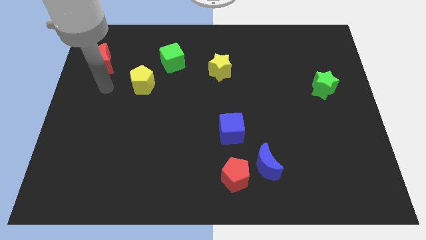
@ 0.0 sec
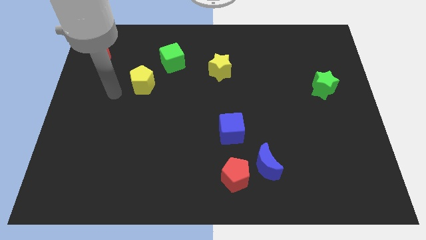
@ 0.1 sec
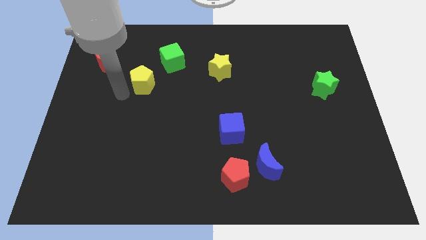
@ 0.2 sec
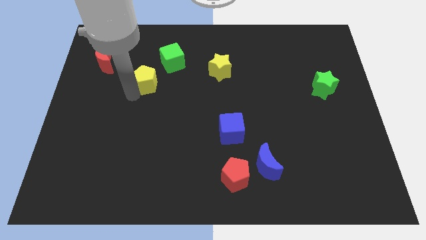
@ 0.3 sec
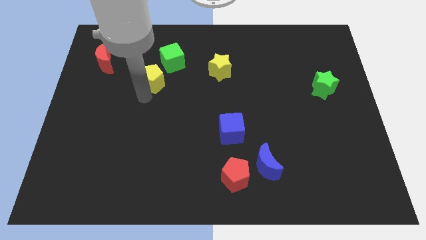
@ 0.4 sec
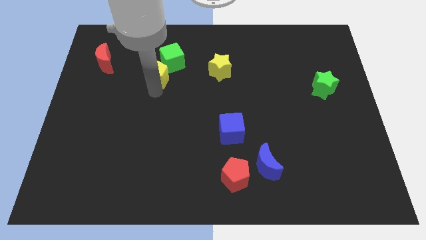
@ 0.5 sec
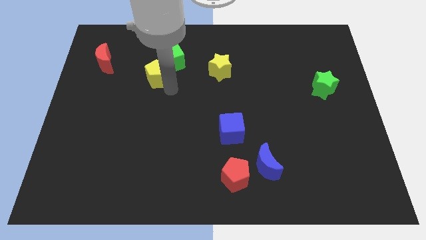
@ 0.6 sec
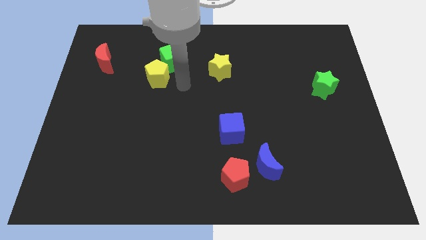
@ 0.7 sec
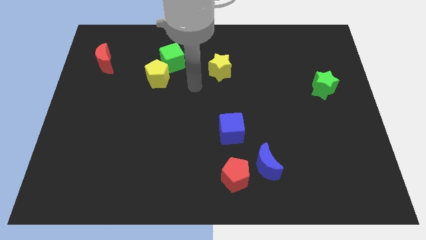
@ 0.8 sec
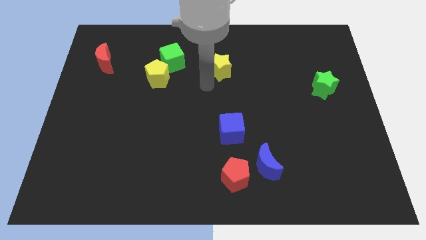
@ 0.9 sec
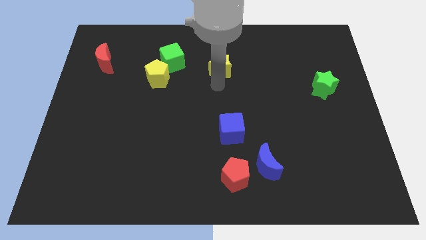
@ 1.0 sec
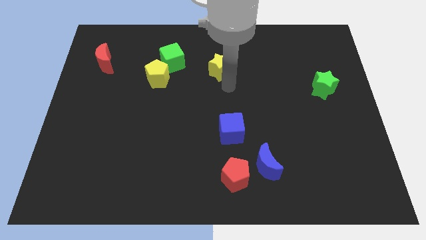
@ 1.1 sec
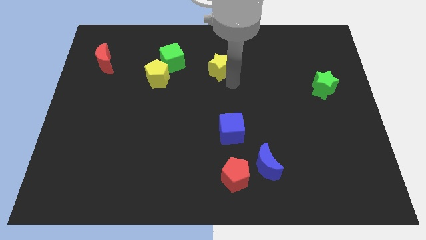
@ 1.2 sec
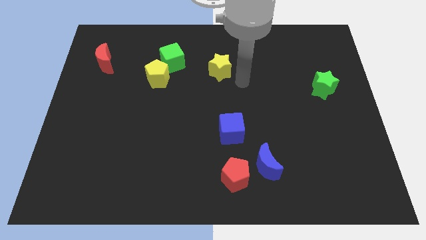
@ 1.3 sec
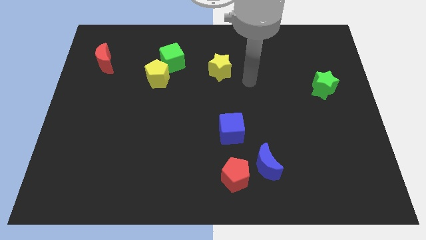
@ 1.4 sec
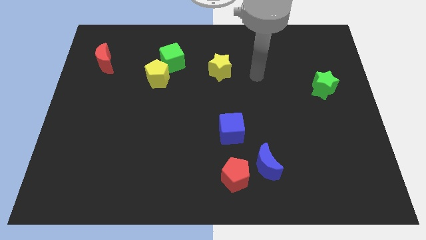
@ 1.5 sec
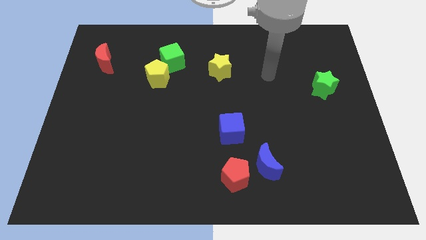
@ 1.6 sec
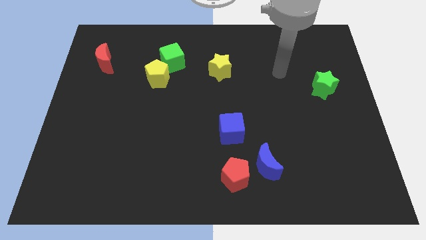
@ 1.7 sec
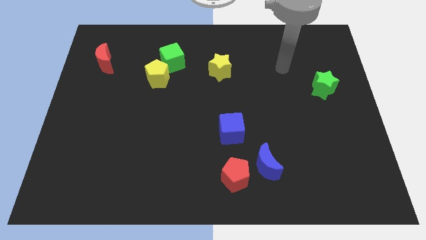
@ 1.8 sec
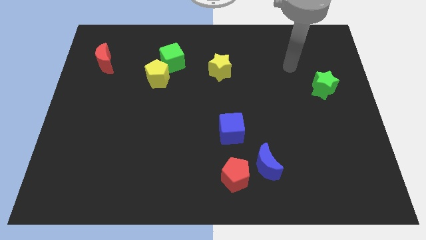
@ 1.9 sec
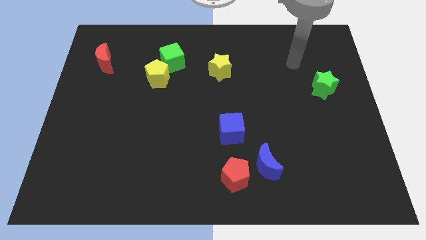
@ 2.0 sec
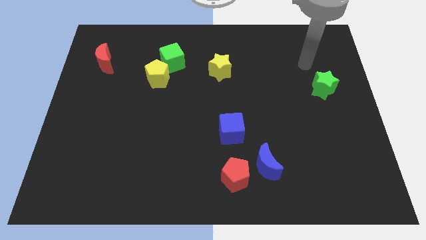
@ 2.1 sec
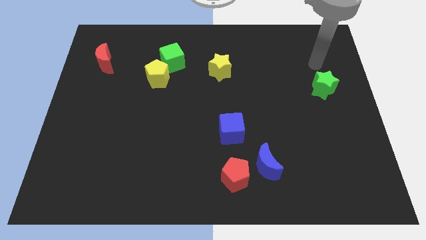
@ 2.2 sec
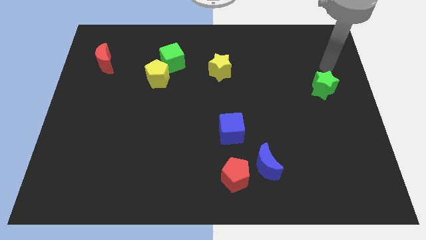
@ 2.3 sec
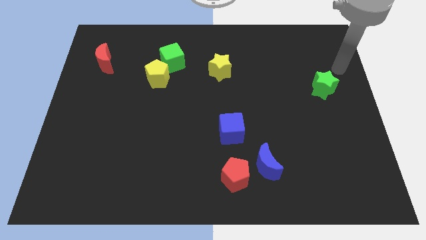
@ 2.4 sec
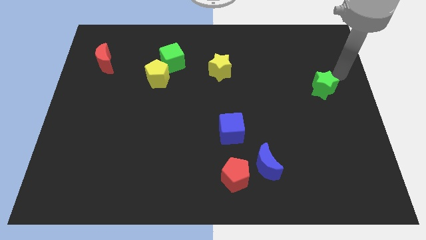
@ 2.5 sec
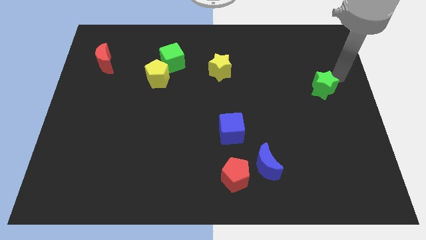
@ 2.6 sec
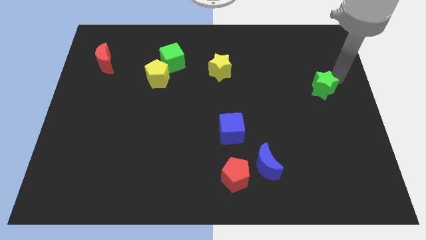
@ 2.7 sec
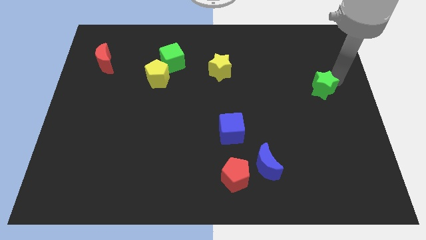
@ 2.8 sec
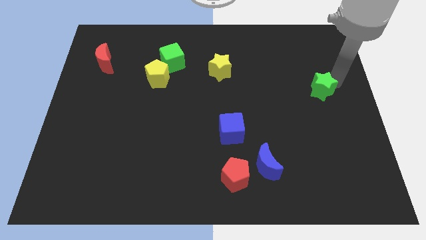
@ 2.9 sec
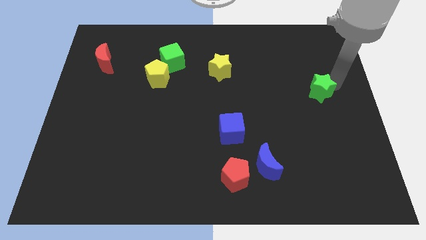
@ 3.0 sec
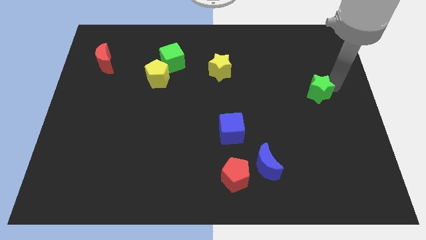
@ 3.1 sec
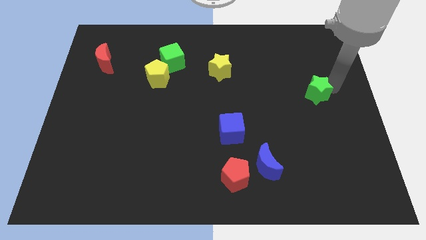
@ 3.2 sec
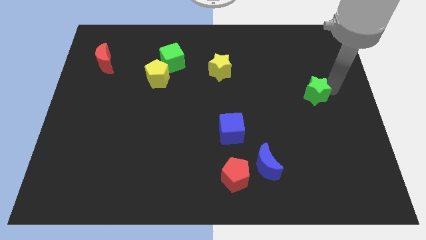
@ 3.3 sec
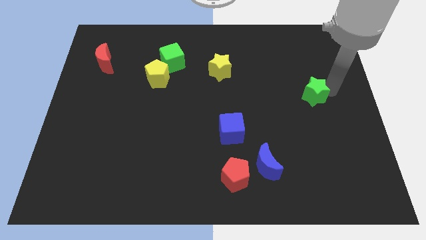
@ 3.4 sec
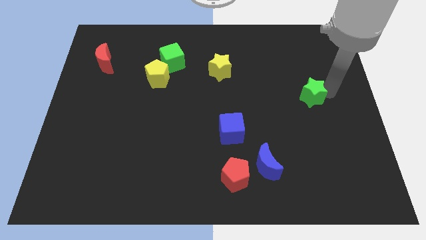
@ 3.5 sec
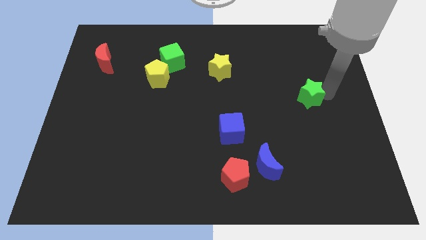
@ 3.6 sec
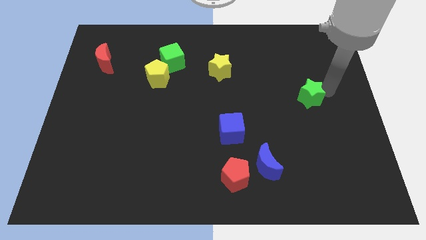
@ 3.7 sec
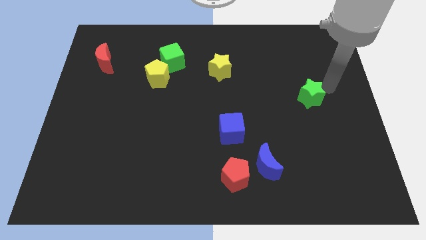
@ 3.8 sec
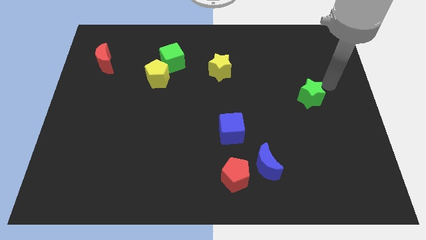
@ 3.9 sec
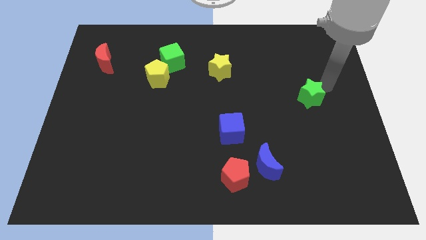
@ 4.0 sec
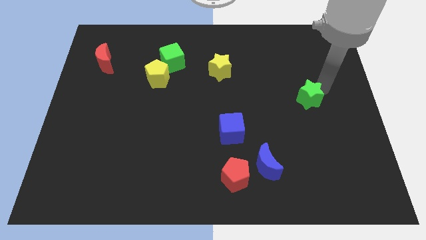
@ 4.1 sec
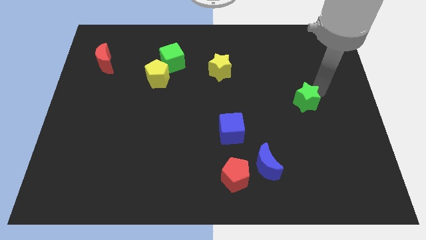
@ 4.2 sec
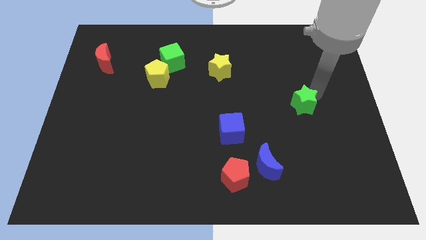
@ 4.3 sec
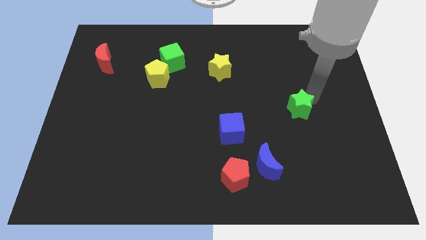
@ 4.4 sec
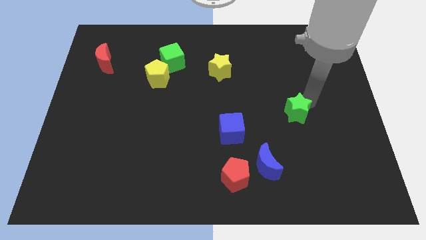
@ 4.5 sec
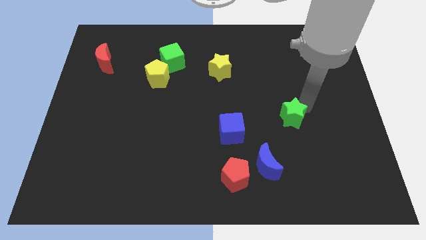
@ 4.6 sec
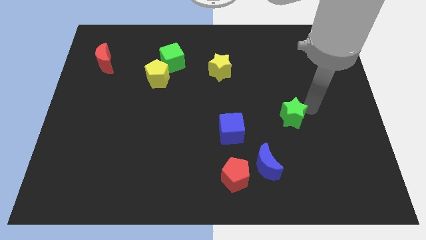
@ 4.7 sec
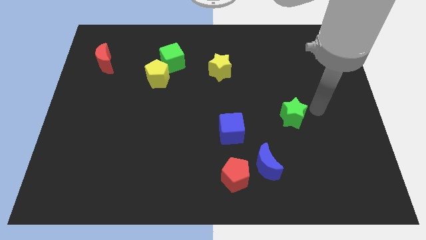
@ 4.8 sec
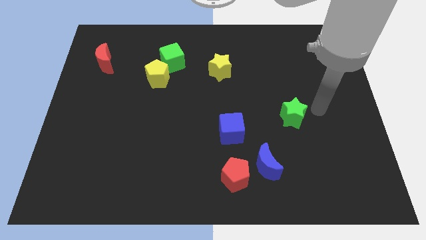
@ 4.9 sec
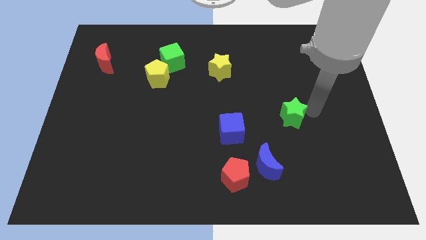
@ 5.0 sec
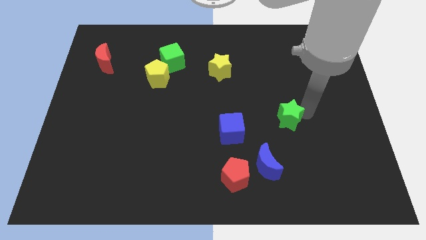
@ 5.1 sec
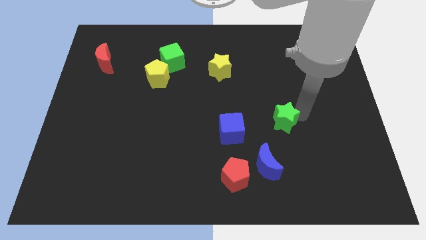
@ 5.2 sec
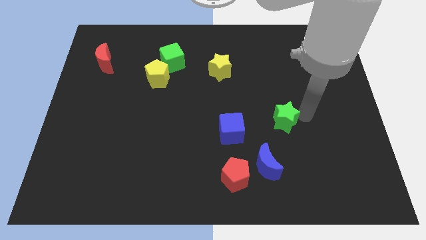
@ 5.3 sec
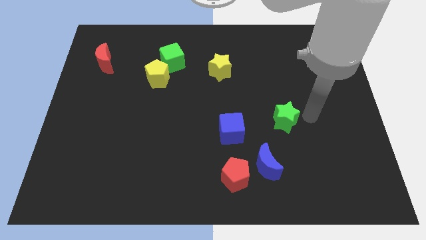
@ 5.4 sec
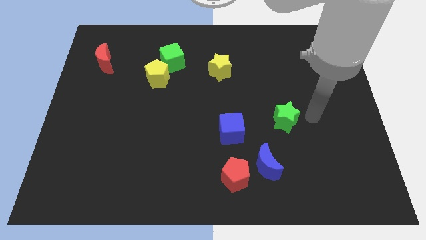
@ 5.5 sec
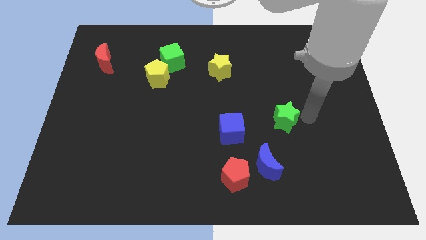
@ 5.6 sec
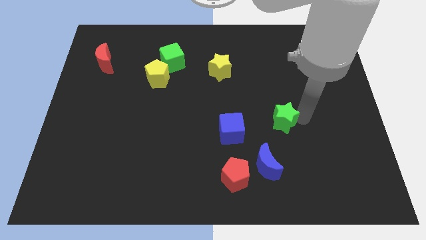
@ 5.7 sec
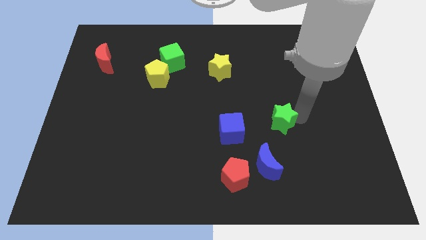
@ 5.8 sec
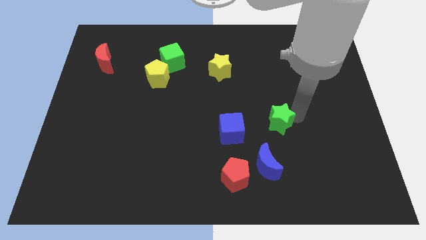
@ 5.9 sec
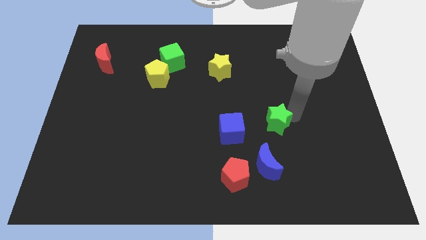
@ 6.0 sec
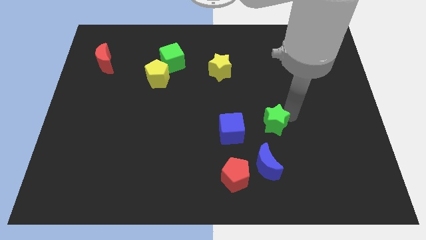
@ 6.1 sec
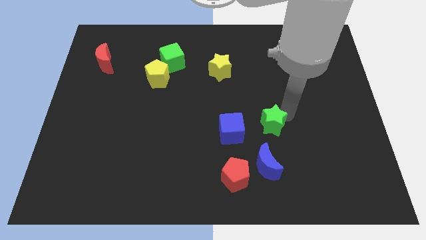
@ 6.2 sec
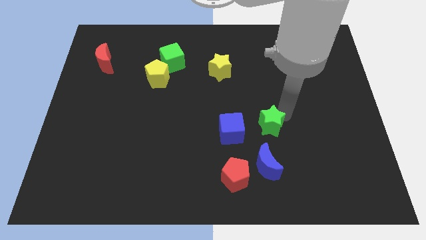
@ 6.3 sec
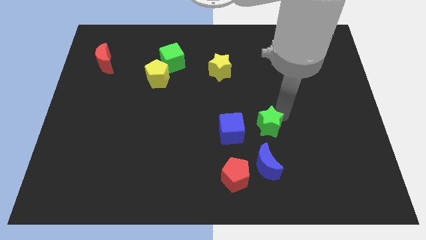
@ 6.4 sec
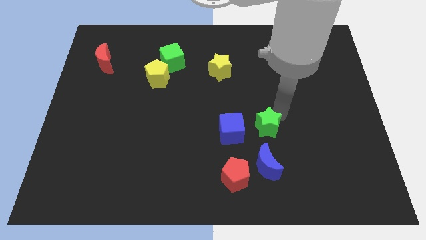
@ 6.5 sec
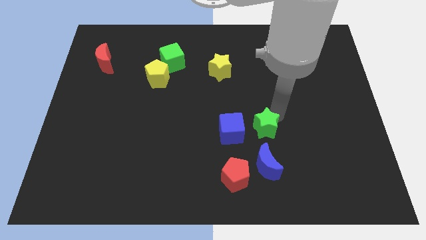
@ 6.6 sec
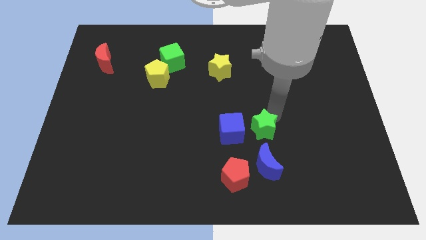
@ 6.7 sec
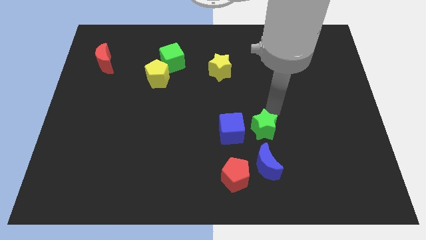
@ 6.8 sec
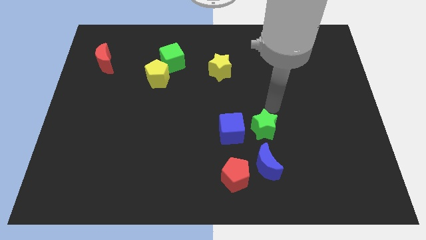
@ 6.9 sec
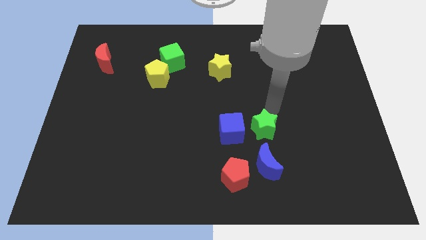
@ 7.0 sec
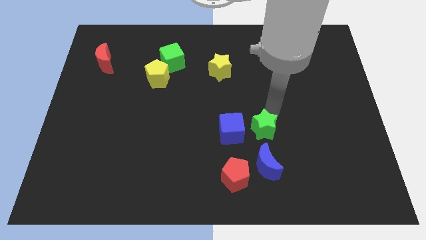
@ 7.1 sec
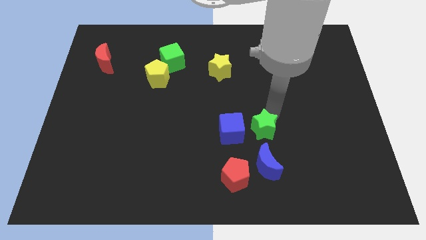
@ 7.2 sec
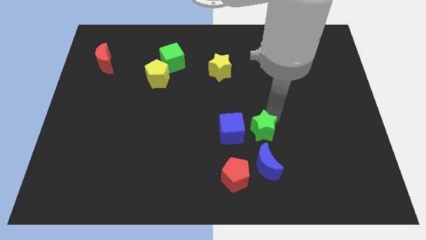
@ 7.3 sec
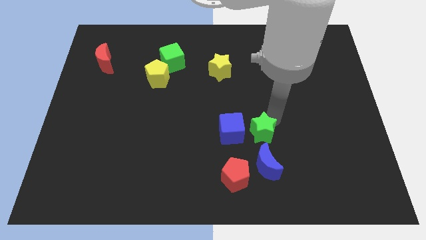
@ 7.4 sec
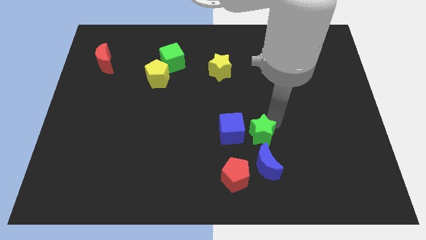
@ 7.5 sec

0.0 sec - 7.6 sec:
push the green star to the bottom right side of the blue cube
